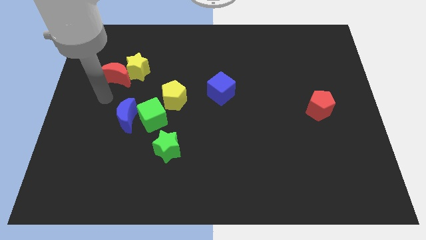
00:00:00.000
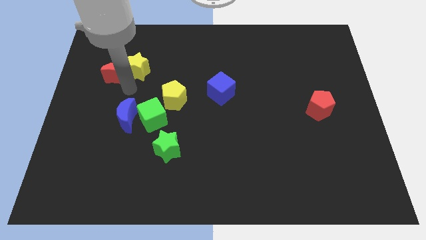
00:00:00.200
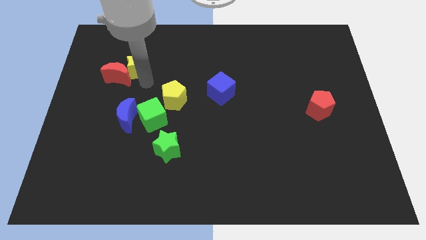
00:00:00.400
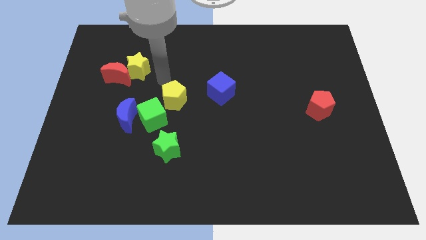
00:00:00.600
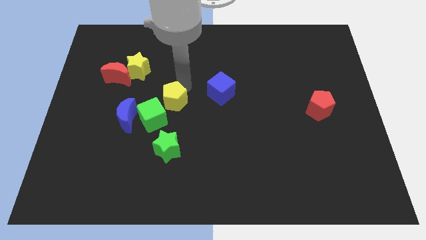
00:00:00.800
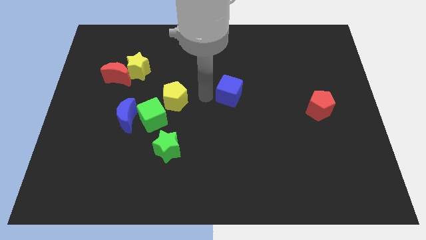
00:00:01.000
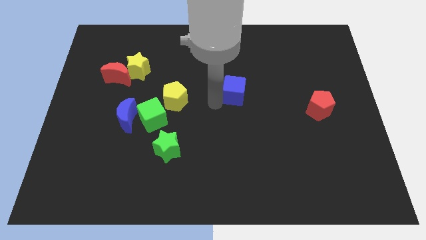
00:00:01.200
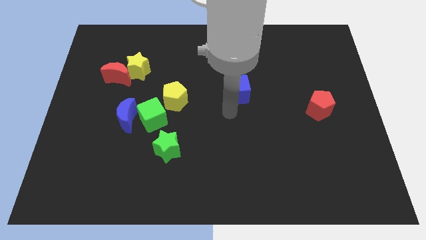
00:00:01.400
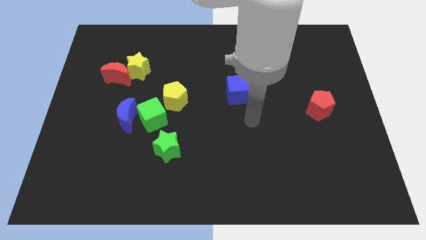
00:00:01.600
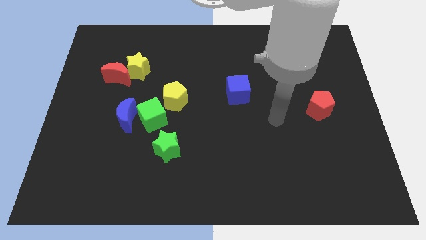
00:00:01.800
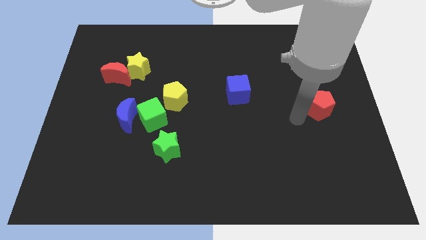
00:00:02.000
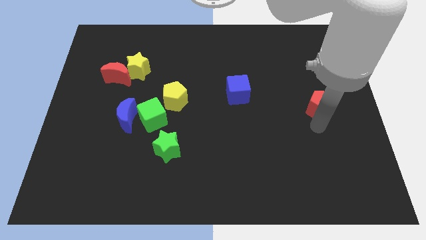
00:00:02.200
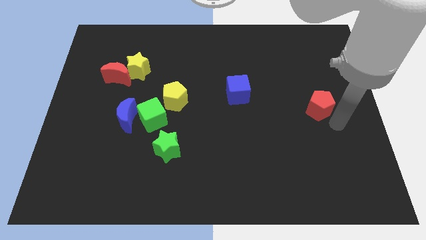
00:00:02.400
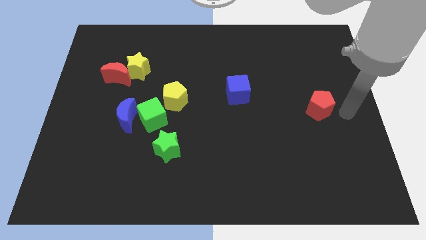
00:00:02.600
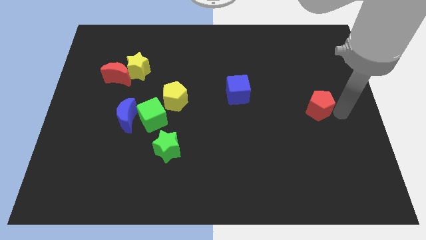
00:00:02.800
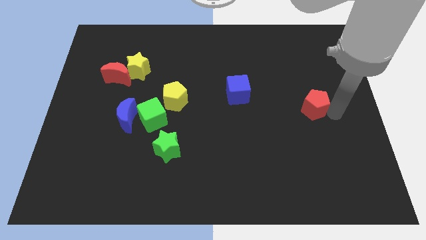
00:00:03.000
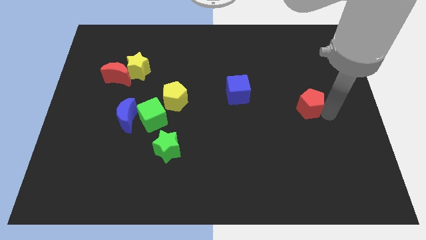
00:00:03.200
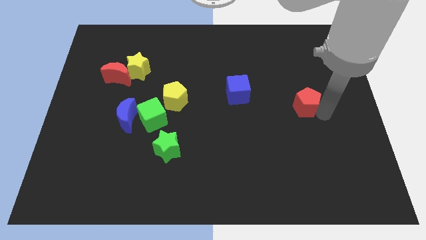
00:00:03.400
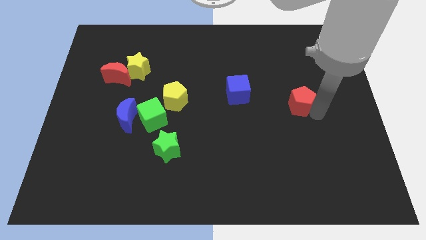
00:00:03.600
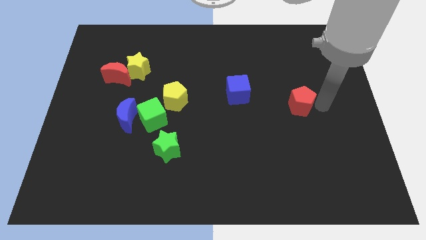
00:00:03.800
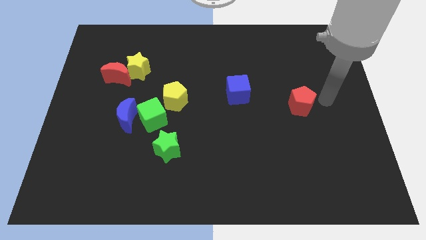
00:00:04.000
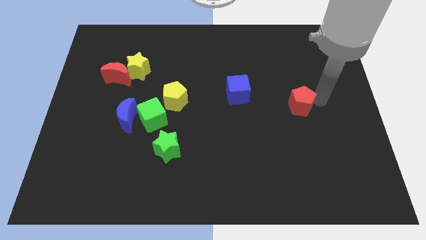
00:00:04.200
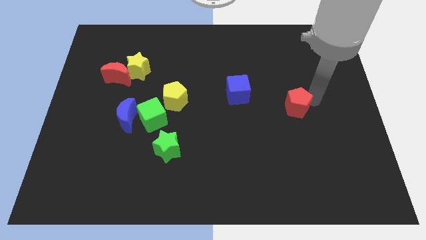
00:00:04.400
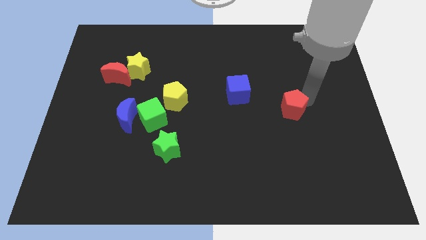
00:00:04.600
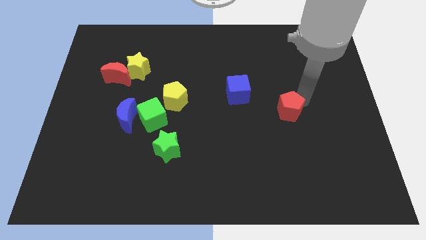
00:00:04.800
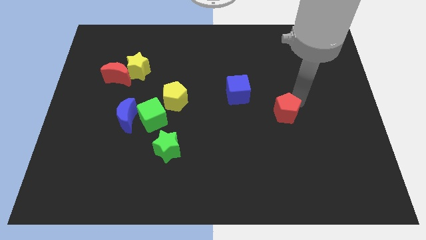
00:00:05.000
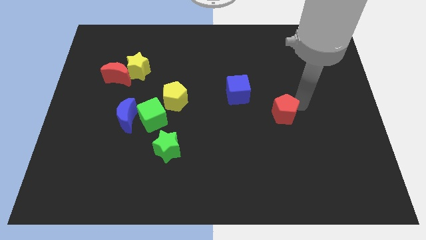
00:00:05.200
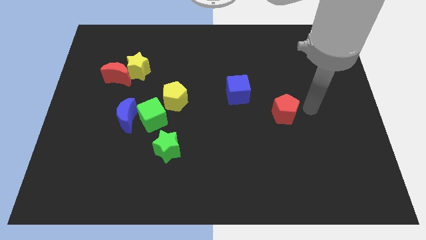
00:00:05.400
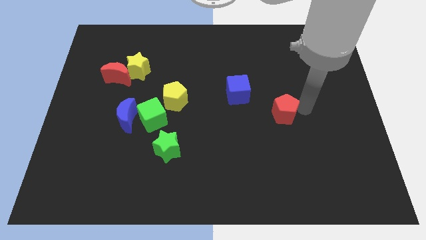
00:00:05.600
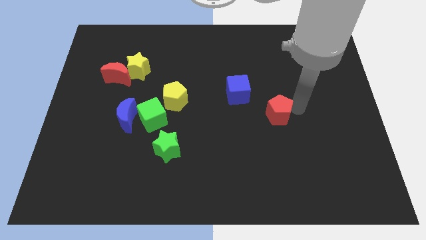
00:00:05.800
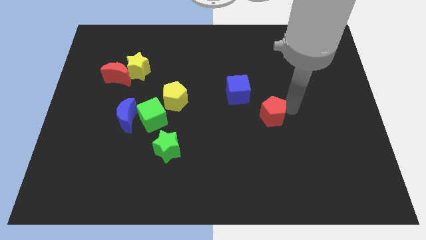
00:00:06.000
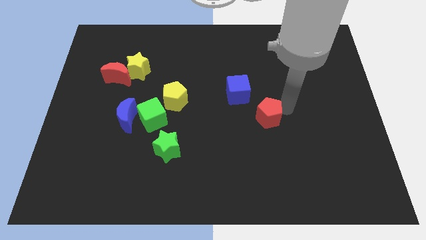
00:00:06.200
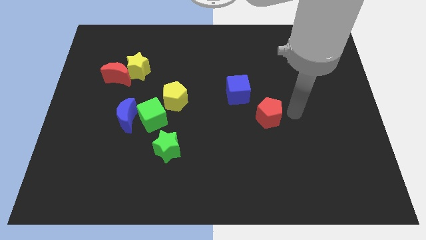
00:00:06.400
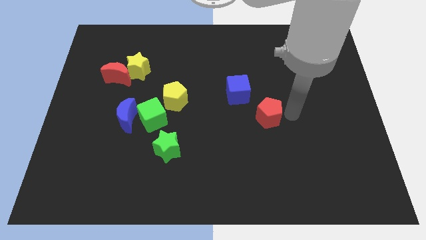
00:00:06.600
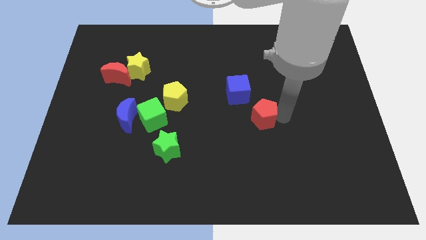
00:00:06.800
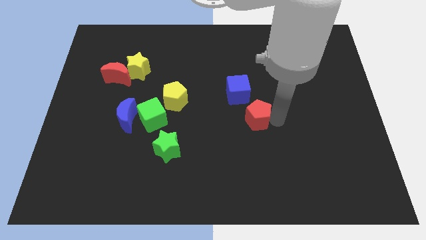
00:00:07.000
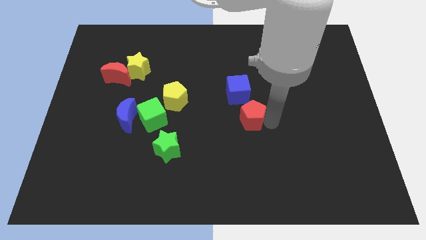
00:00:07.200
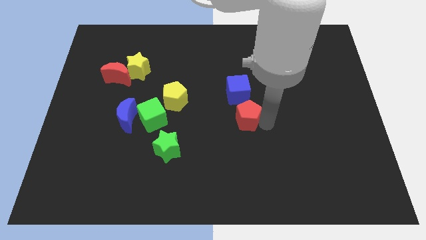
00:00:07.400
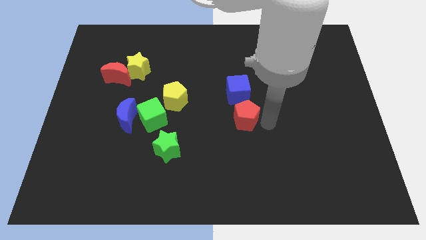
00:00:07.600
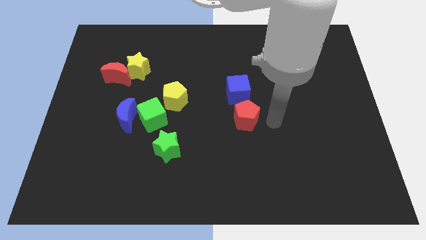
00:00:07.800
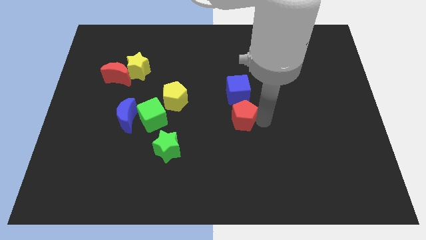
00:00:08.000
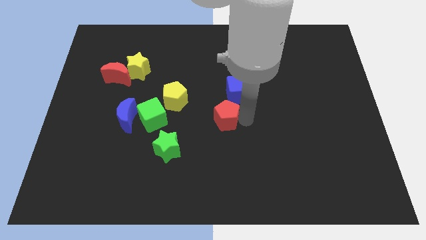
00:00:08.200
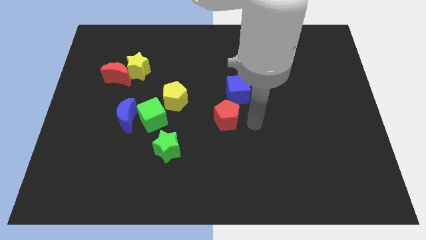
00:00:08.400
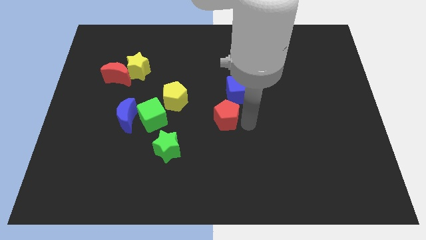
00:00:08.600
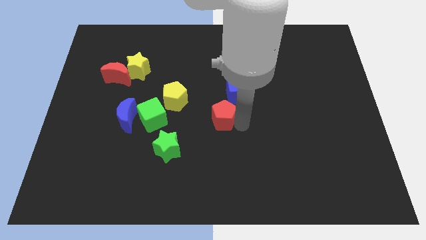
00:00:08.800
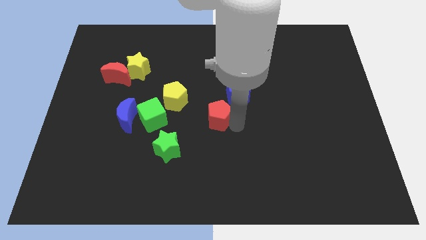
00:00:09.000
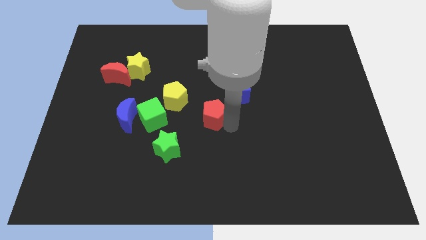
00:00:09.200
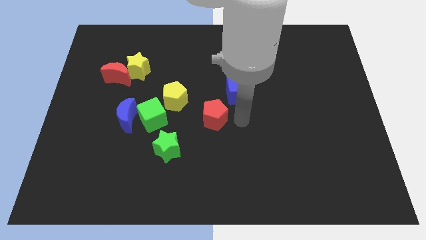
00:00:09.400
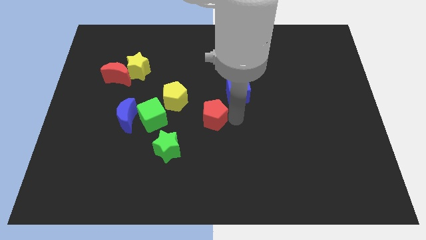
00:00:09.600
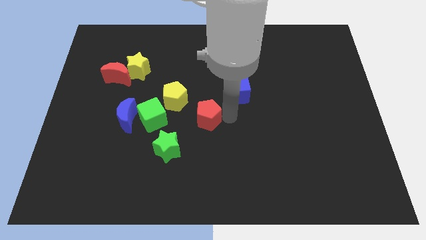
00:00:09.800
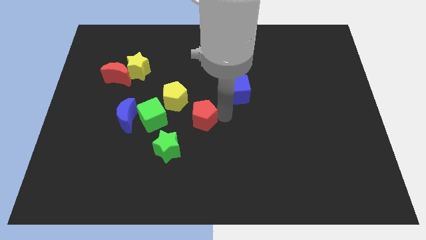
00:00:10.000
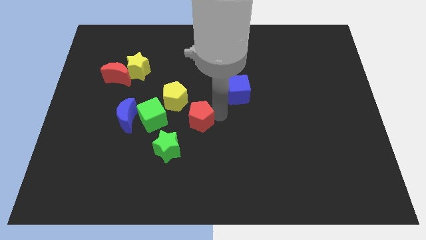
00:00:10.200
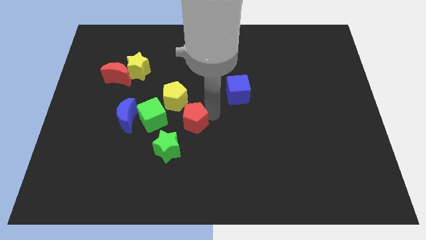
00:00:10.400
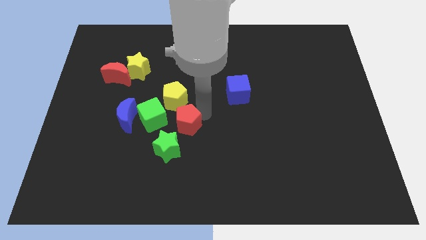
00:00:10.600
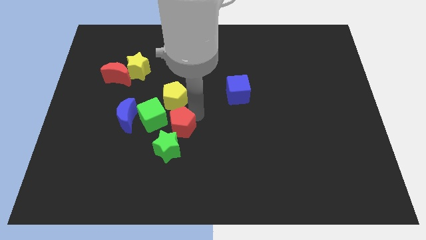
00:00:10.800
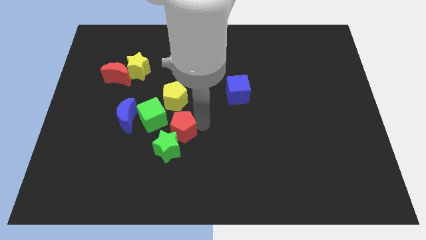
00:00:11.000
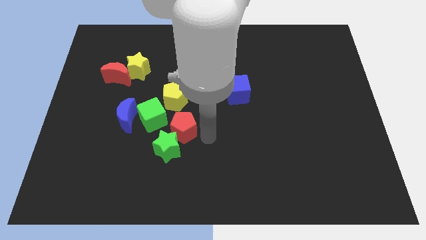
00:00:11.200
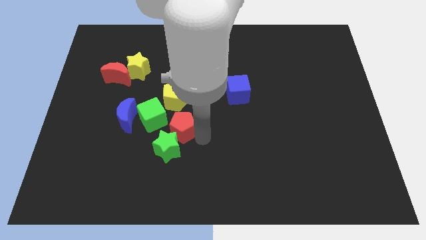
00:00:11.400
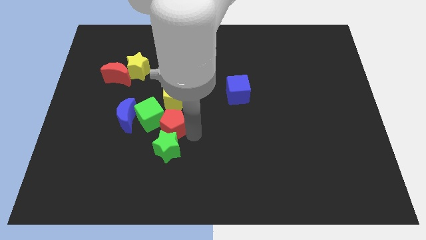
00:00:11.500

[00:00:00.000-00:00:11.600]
slide the red pentagon to the green cube
